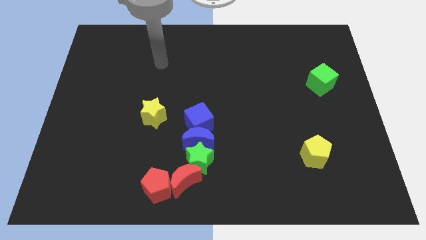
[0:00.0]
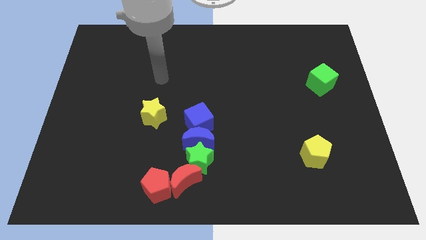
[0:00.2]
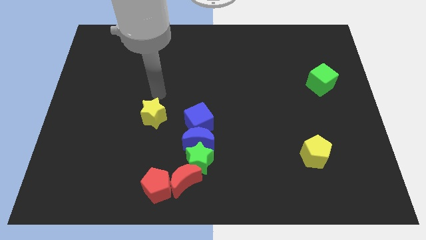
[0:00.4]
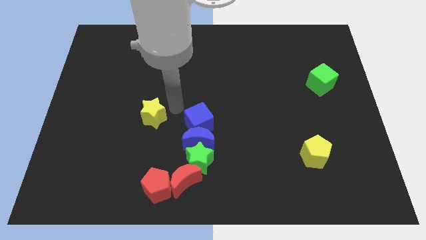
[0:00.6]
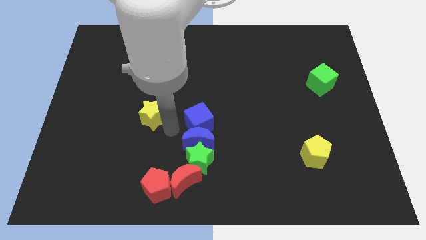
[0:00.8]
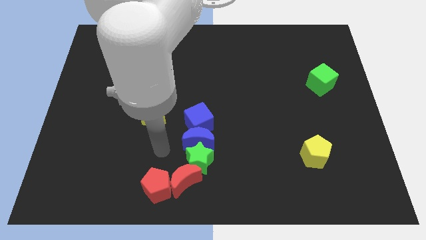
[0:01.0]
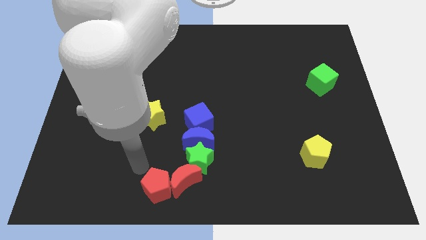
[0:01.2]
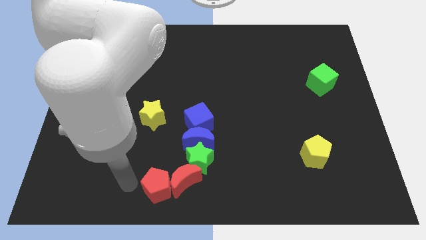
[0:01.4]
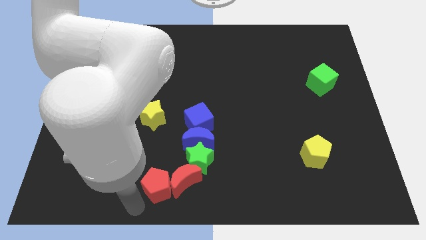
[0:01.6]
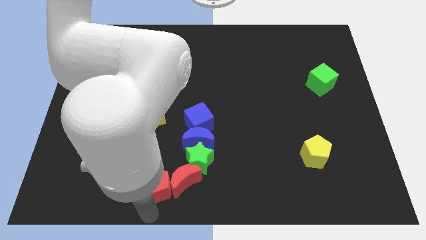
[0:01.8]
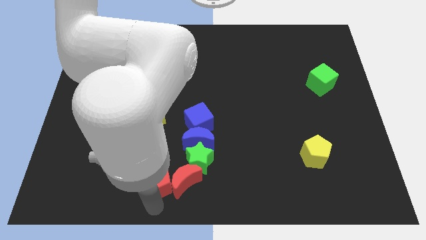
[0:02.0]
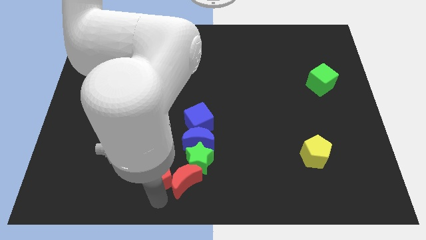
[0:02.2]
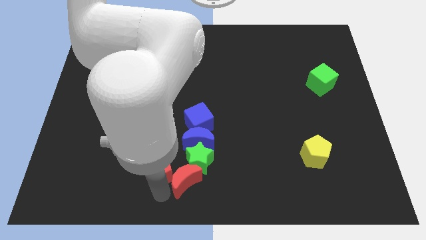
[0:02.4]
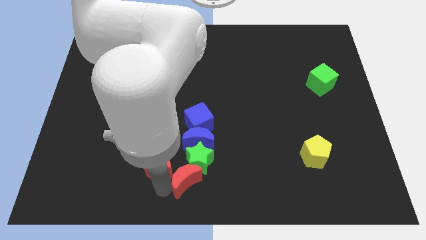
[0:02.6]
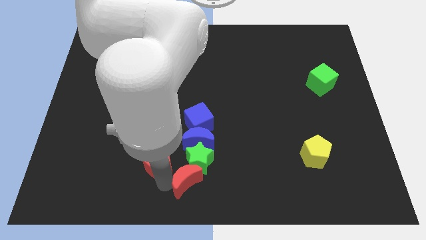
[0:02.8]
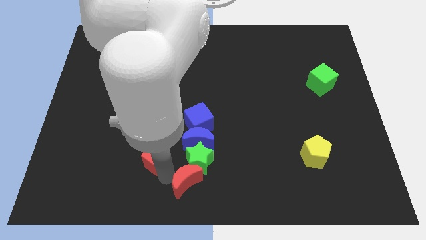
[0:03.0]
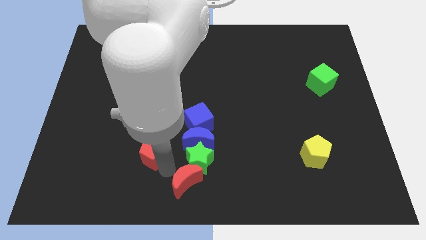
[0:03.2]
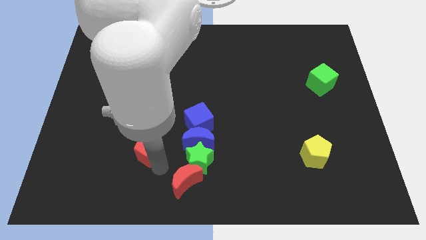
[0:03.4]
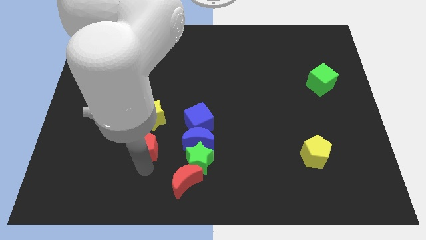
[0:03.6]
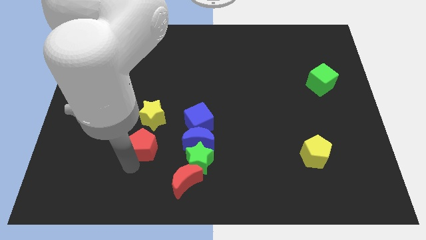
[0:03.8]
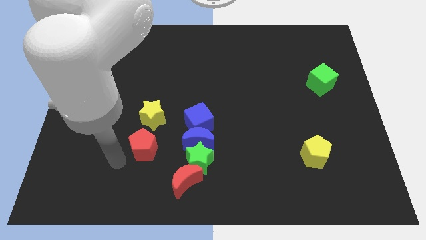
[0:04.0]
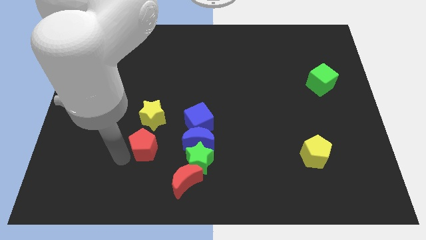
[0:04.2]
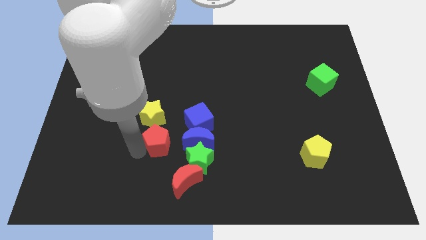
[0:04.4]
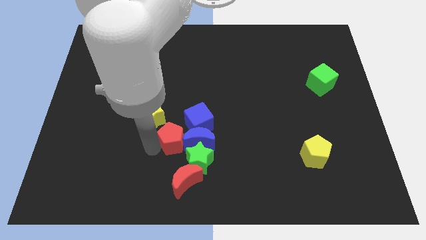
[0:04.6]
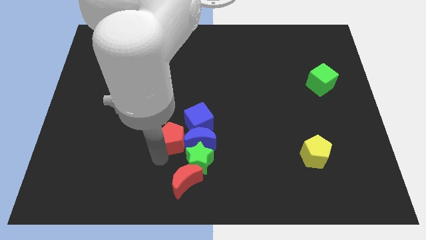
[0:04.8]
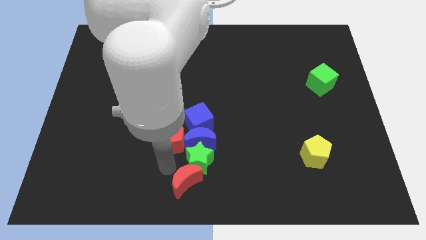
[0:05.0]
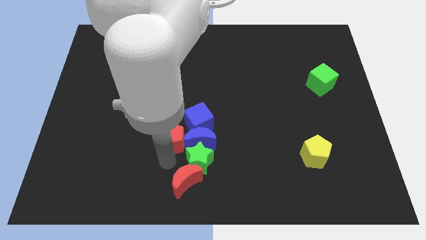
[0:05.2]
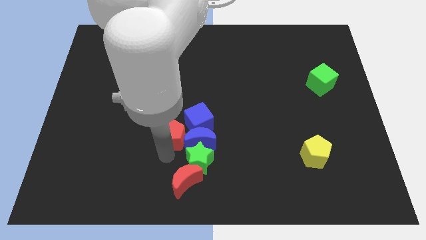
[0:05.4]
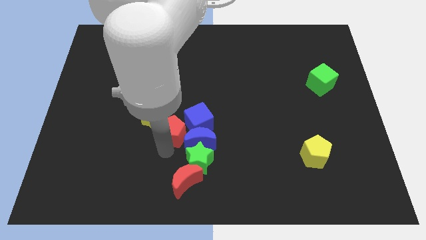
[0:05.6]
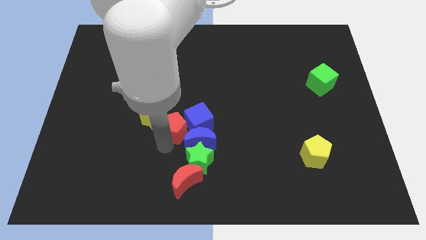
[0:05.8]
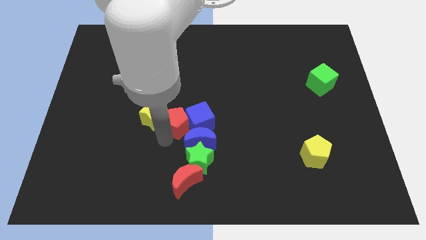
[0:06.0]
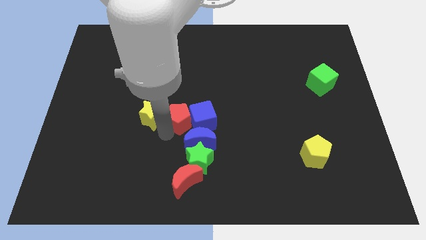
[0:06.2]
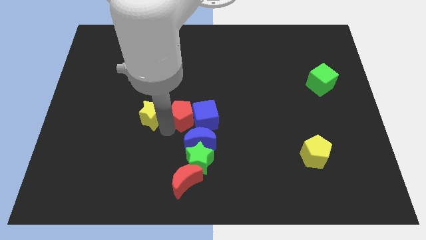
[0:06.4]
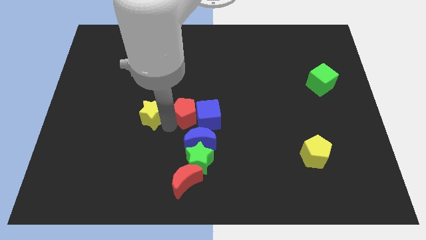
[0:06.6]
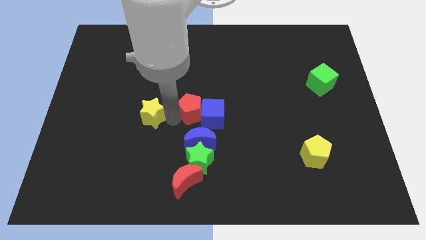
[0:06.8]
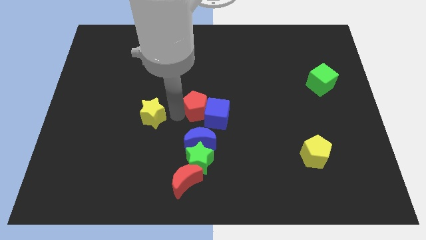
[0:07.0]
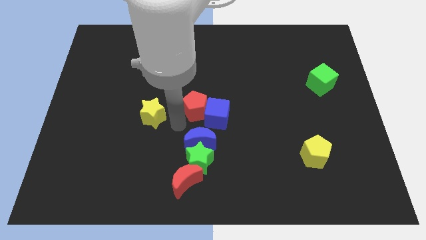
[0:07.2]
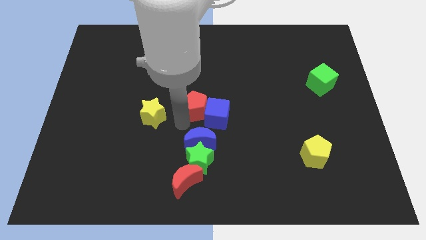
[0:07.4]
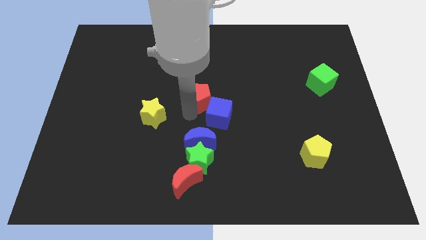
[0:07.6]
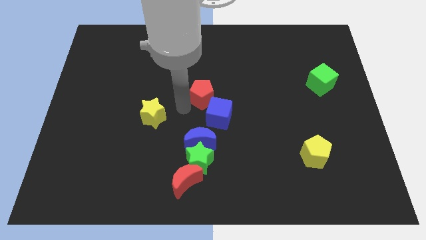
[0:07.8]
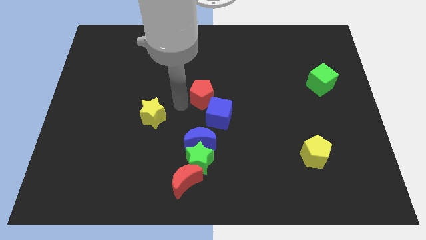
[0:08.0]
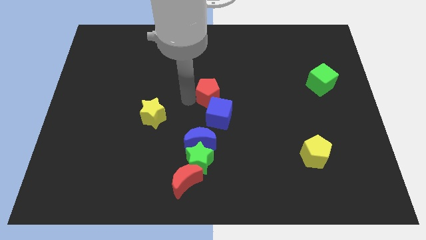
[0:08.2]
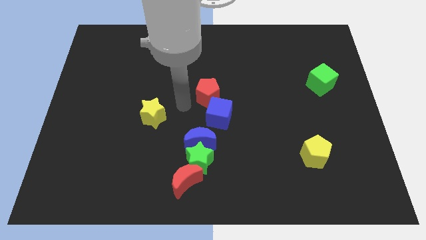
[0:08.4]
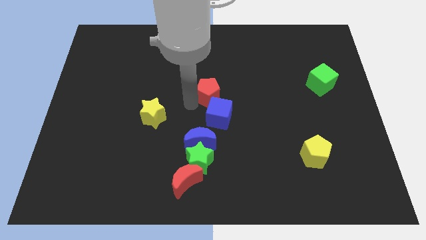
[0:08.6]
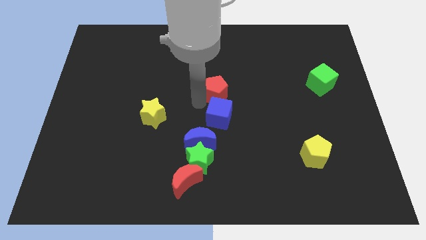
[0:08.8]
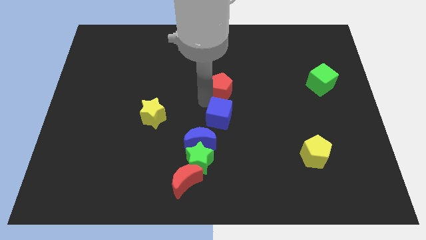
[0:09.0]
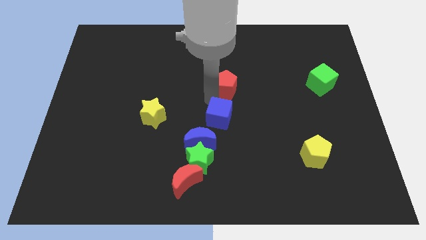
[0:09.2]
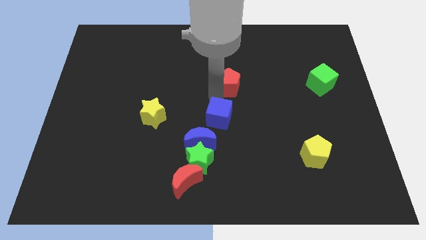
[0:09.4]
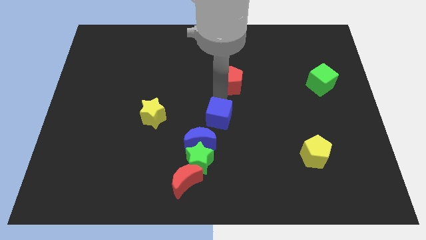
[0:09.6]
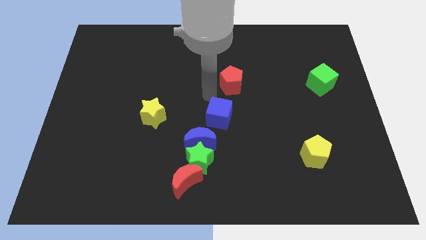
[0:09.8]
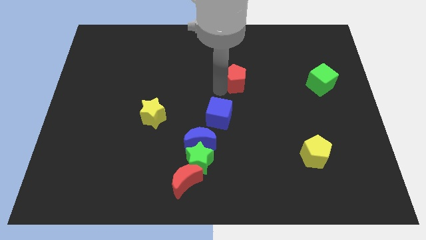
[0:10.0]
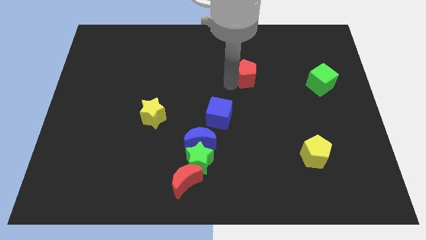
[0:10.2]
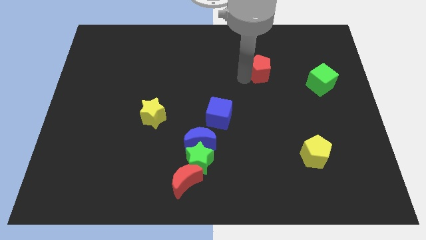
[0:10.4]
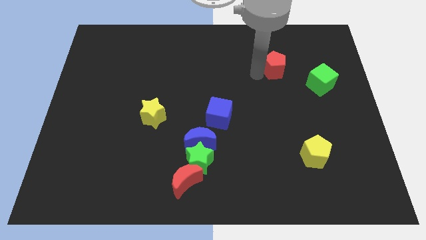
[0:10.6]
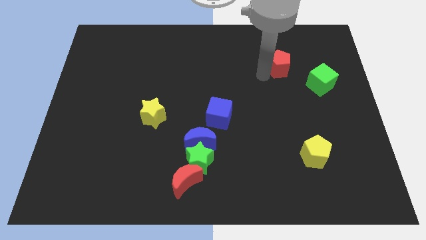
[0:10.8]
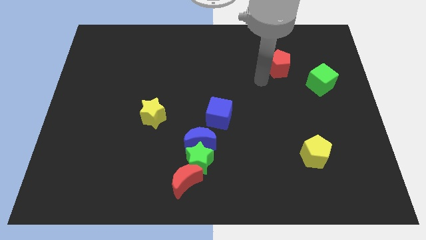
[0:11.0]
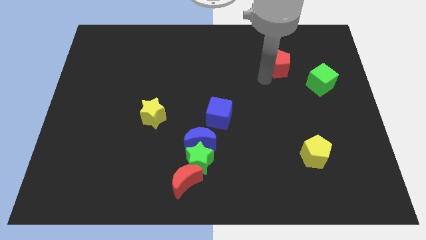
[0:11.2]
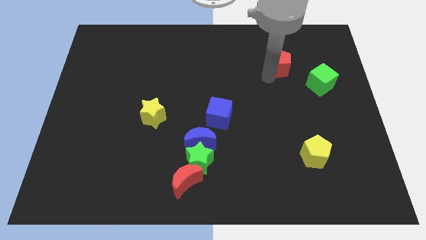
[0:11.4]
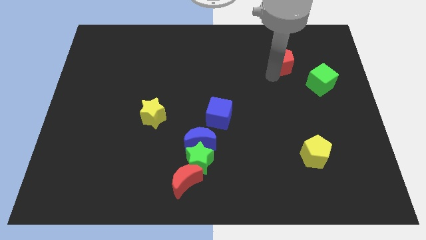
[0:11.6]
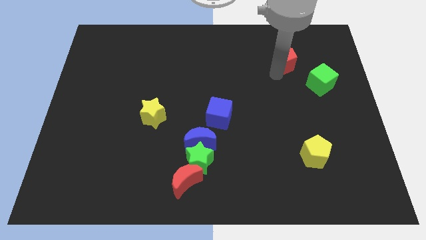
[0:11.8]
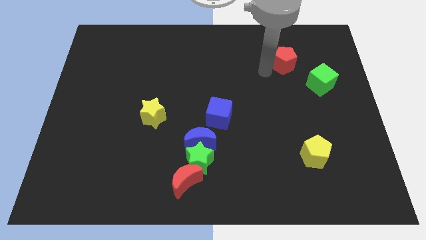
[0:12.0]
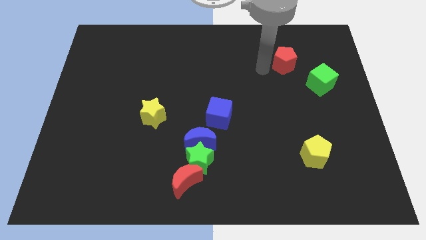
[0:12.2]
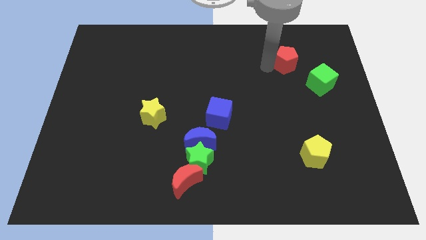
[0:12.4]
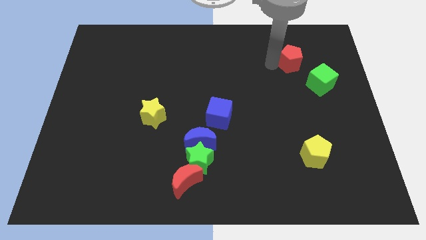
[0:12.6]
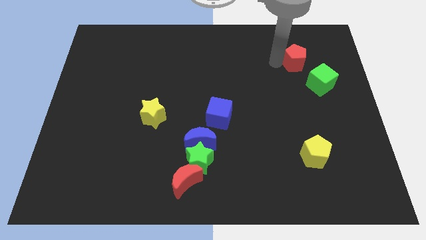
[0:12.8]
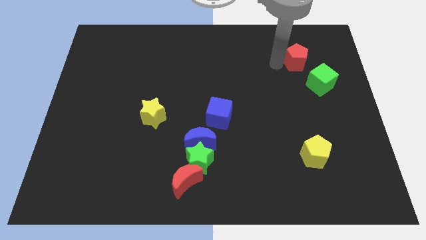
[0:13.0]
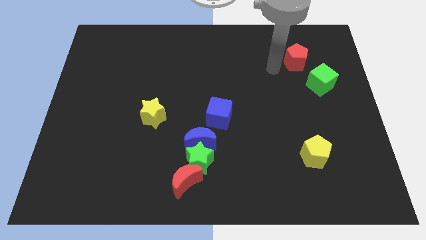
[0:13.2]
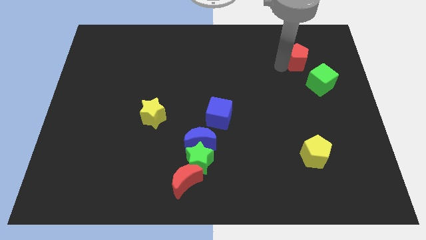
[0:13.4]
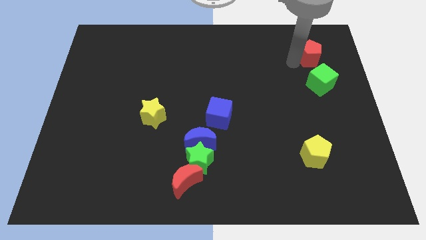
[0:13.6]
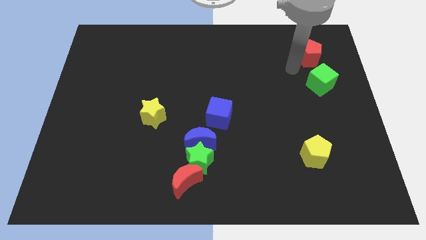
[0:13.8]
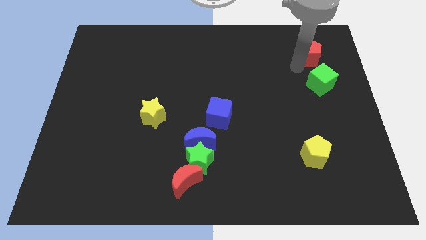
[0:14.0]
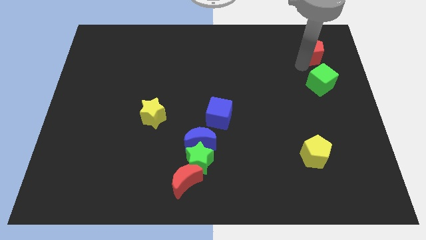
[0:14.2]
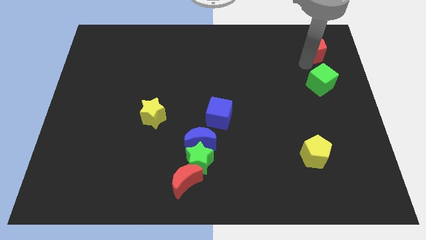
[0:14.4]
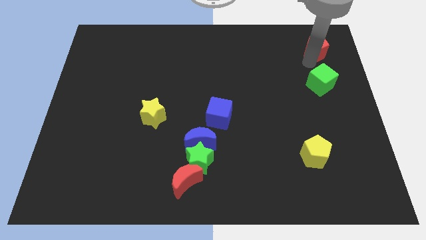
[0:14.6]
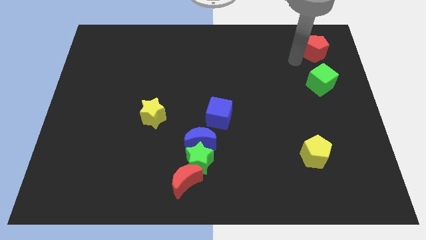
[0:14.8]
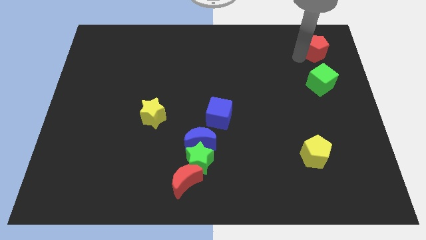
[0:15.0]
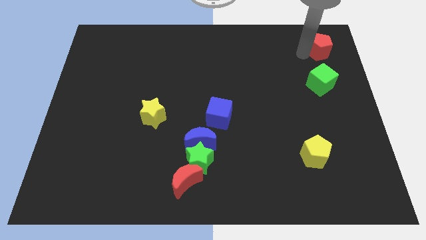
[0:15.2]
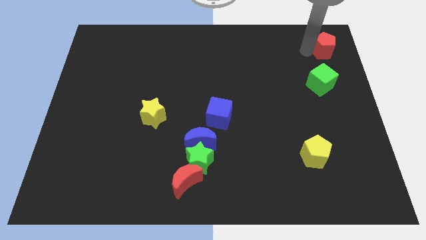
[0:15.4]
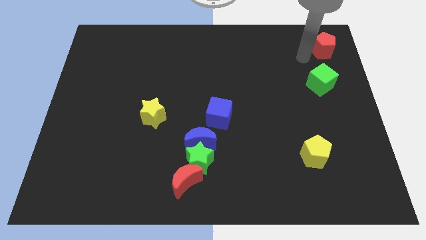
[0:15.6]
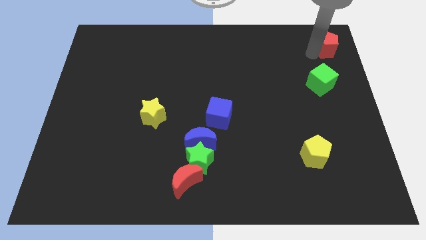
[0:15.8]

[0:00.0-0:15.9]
move the red pentagon to the top right
